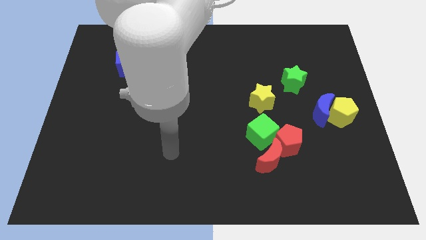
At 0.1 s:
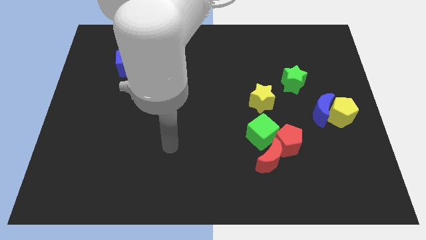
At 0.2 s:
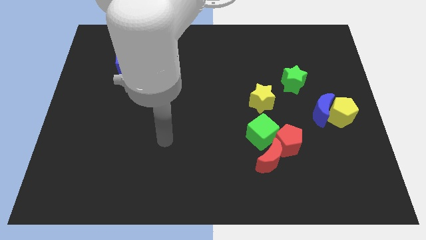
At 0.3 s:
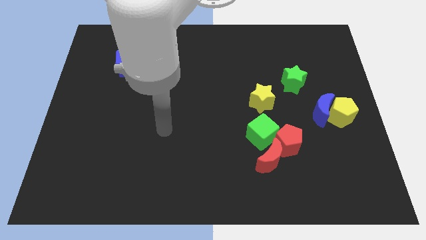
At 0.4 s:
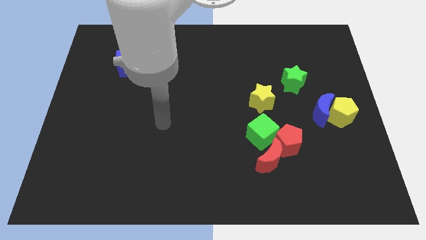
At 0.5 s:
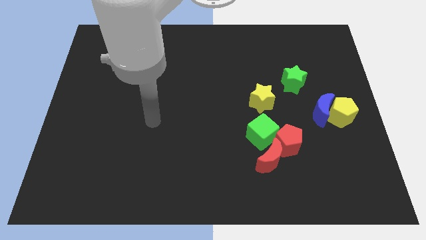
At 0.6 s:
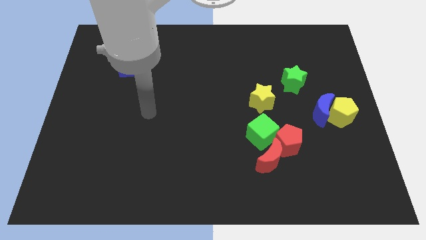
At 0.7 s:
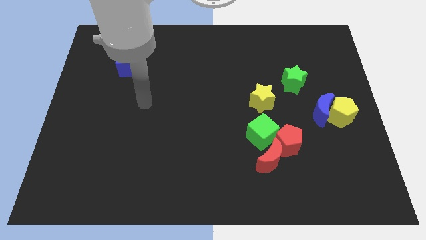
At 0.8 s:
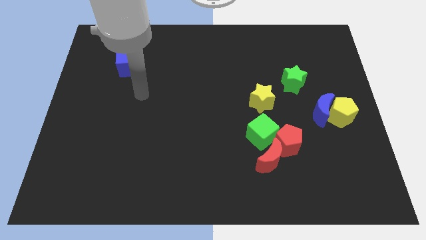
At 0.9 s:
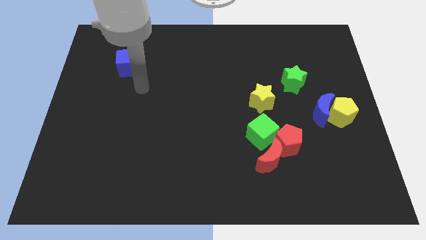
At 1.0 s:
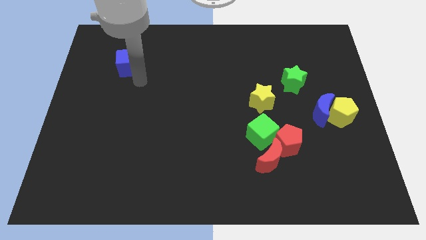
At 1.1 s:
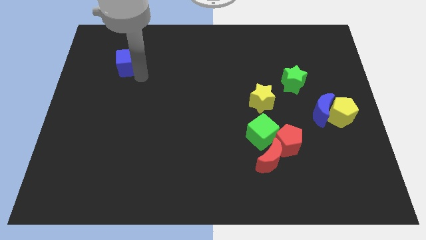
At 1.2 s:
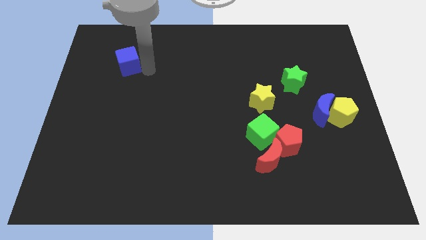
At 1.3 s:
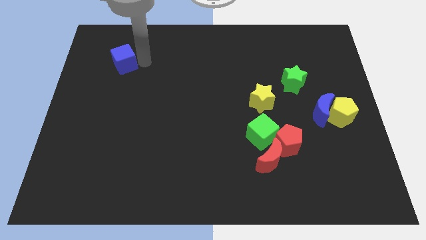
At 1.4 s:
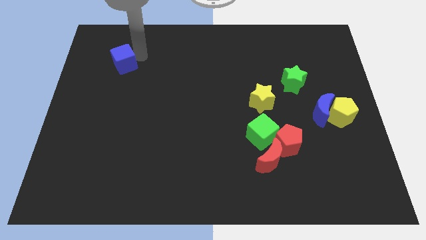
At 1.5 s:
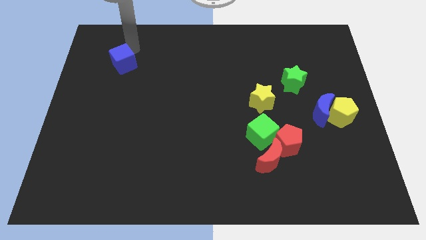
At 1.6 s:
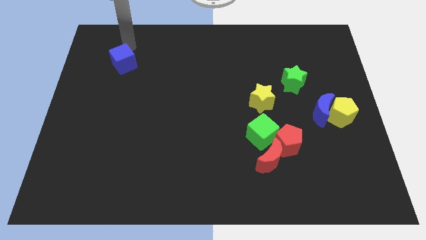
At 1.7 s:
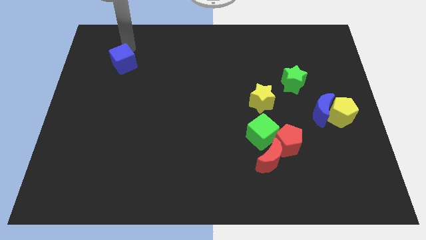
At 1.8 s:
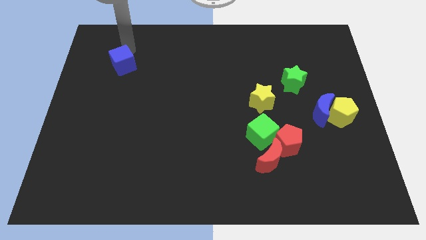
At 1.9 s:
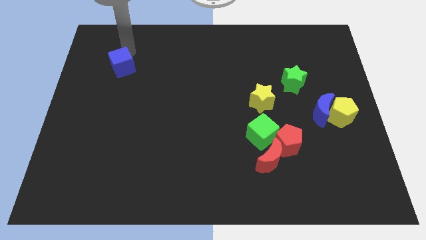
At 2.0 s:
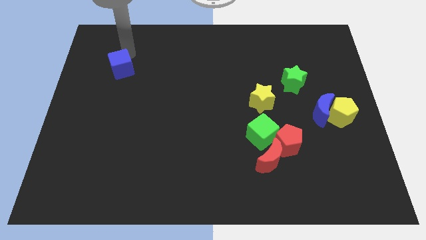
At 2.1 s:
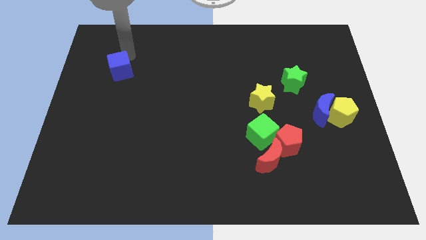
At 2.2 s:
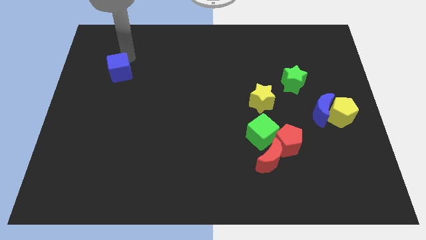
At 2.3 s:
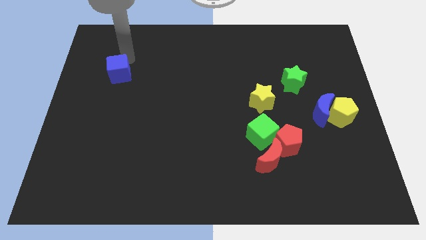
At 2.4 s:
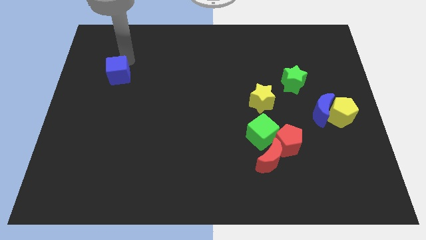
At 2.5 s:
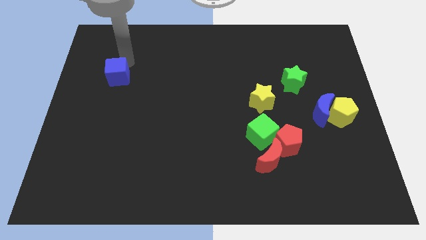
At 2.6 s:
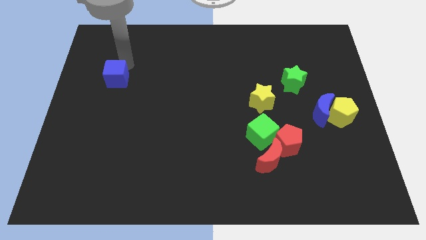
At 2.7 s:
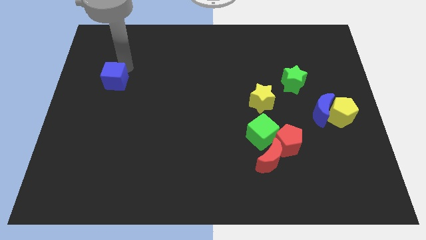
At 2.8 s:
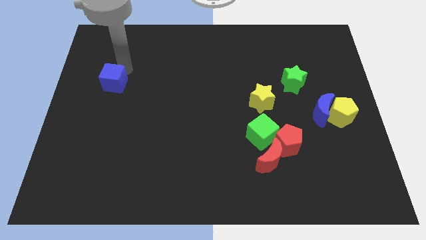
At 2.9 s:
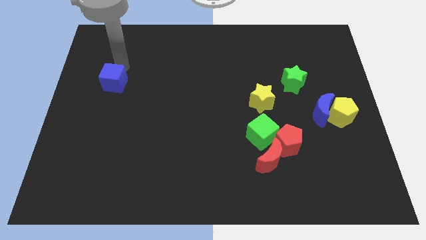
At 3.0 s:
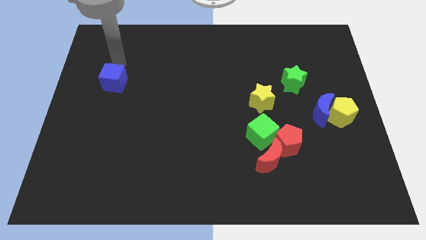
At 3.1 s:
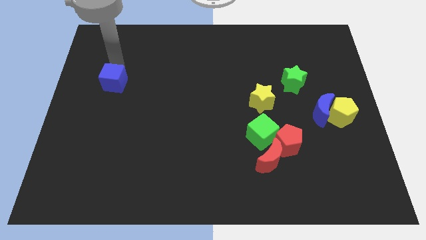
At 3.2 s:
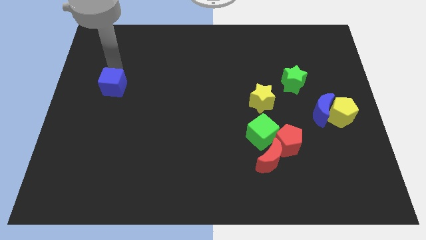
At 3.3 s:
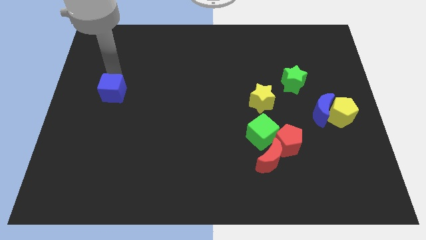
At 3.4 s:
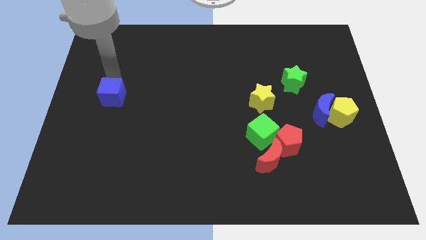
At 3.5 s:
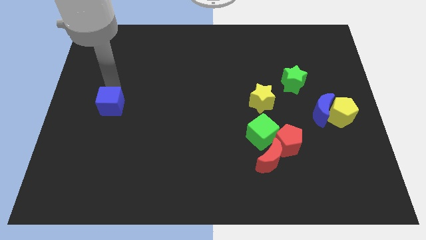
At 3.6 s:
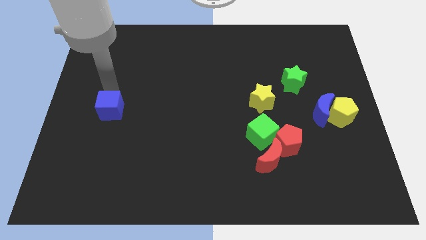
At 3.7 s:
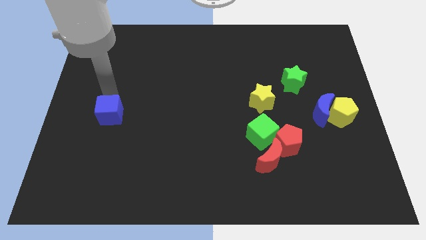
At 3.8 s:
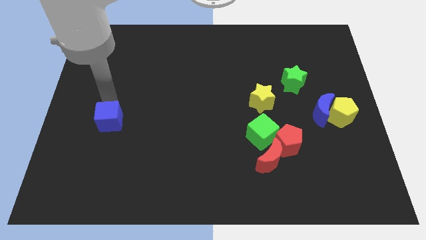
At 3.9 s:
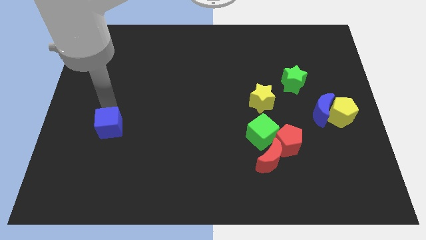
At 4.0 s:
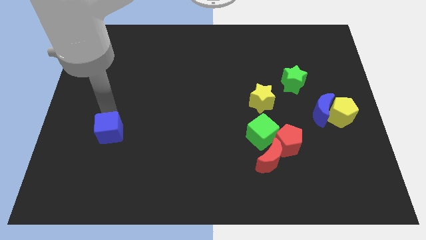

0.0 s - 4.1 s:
push the blue cube downwards

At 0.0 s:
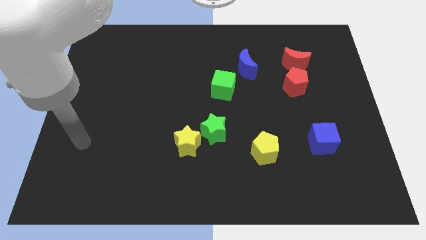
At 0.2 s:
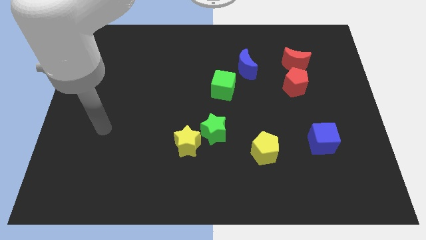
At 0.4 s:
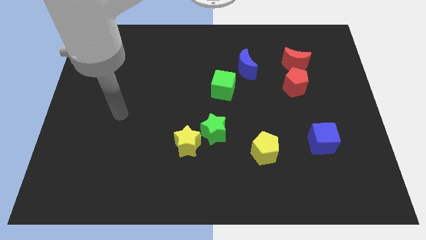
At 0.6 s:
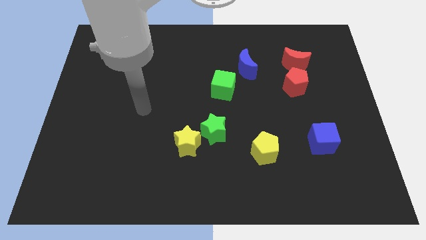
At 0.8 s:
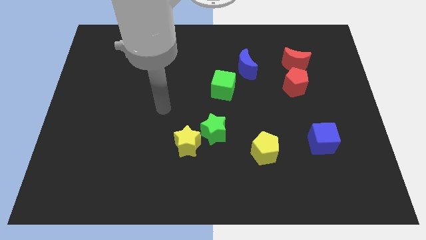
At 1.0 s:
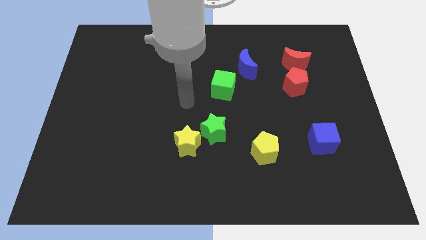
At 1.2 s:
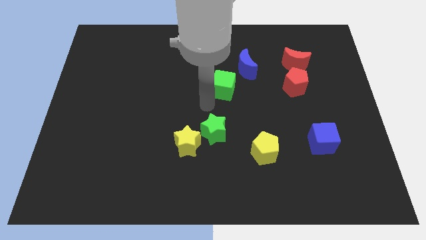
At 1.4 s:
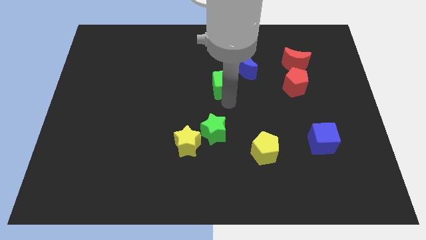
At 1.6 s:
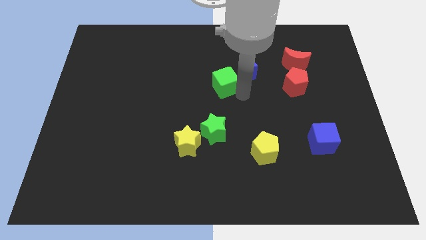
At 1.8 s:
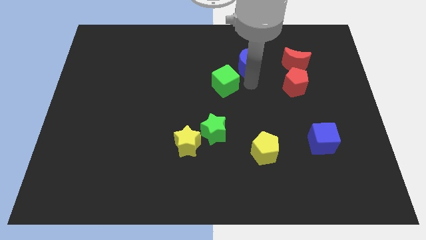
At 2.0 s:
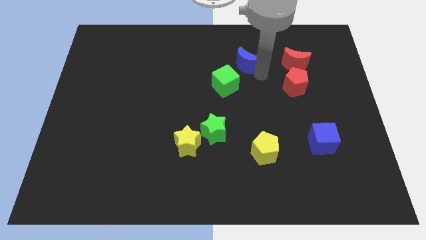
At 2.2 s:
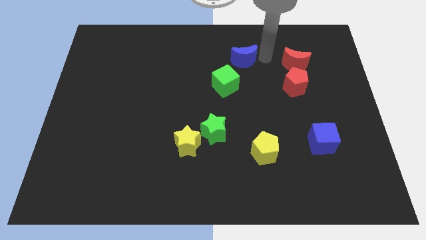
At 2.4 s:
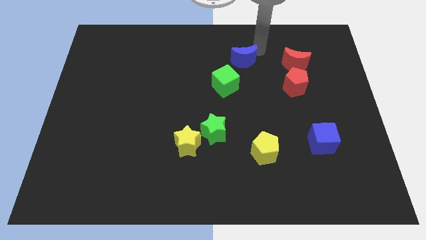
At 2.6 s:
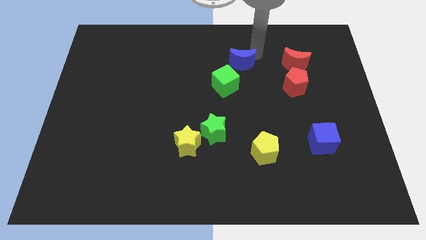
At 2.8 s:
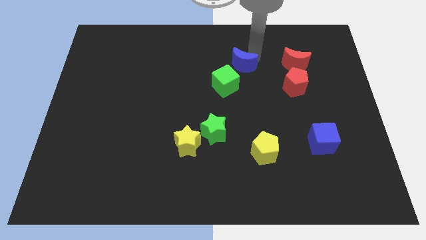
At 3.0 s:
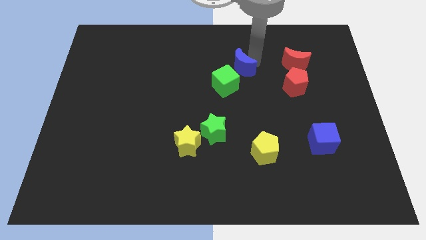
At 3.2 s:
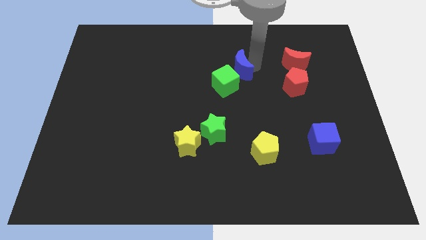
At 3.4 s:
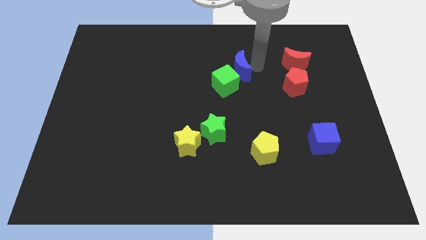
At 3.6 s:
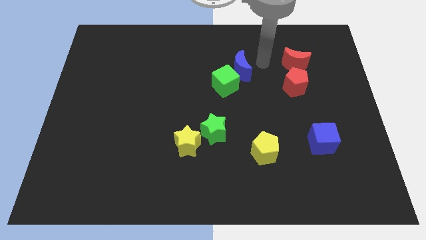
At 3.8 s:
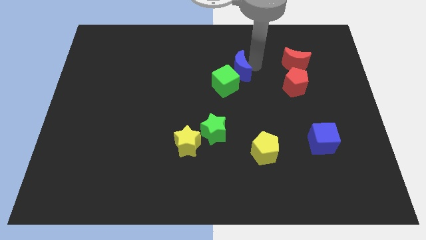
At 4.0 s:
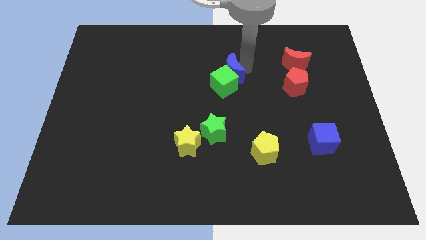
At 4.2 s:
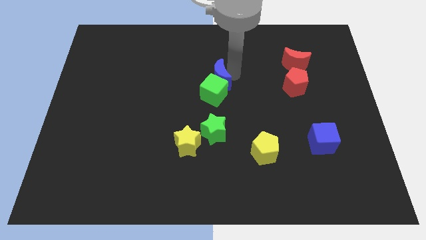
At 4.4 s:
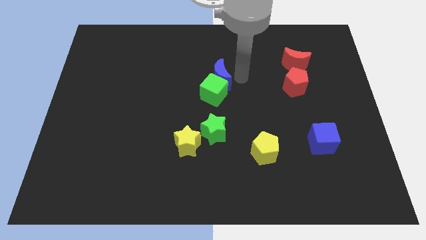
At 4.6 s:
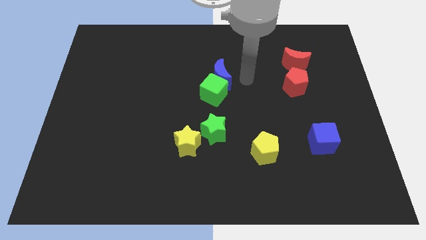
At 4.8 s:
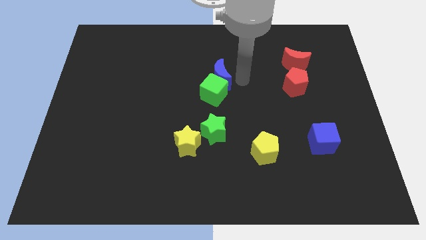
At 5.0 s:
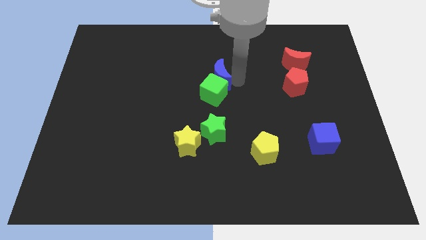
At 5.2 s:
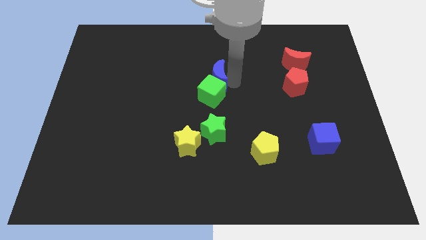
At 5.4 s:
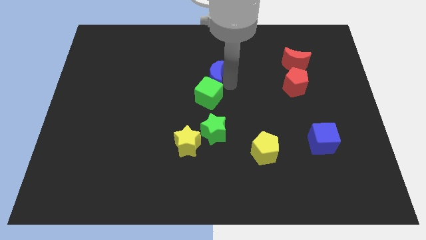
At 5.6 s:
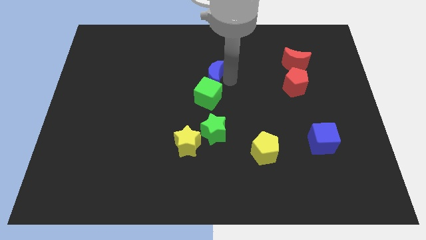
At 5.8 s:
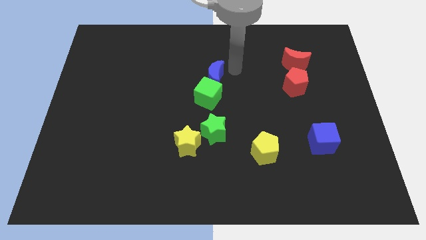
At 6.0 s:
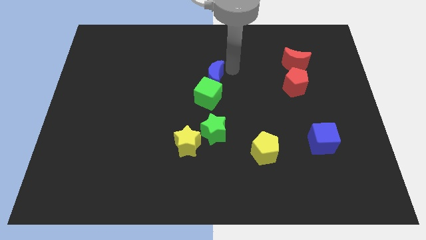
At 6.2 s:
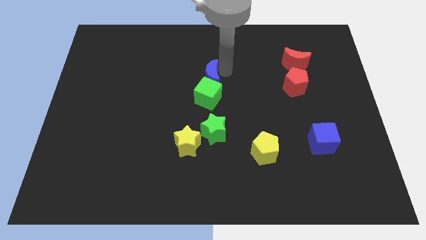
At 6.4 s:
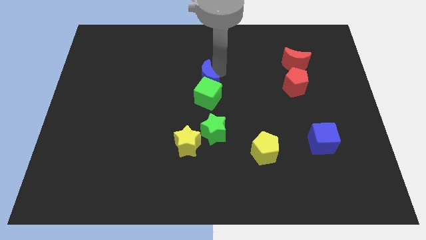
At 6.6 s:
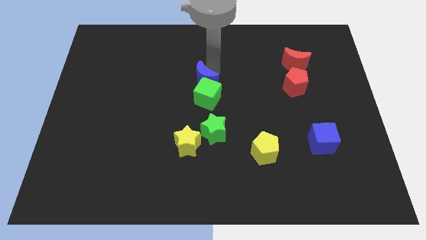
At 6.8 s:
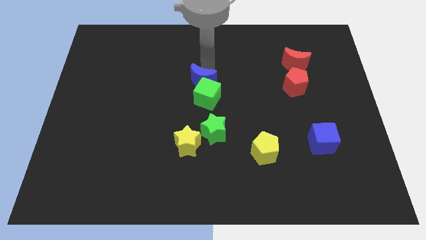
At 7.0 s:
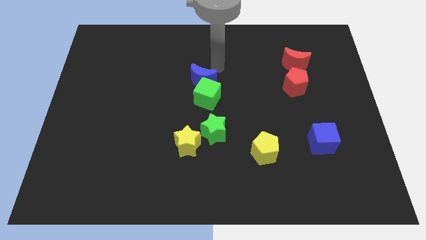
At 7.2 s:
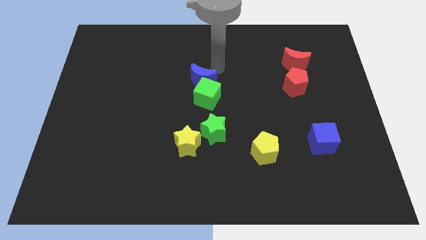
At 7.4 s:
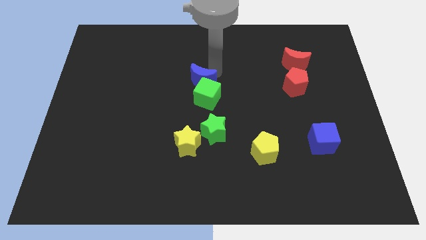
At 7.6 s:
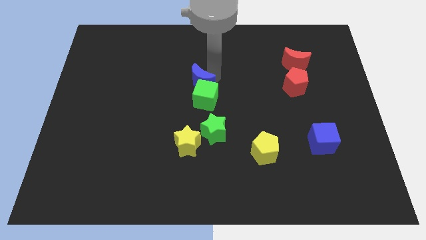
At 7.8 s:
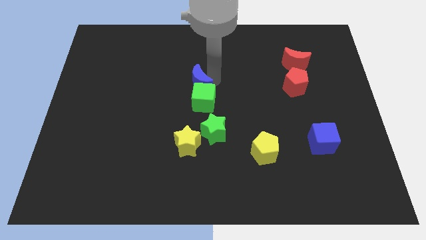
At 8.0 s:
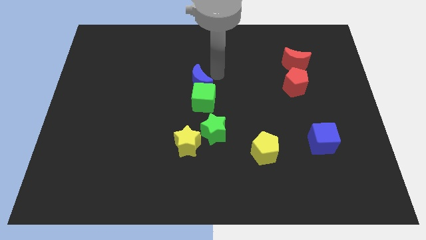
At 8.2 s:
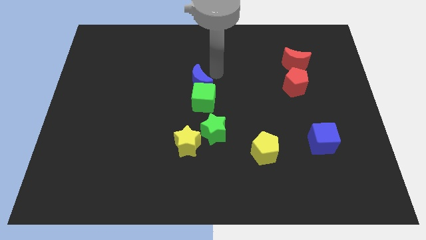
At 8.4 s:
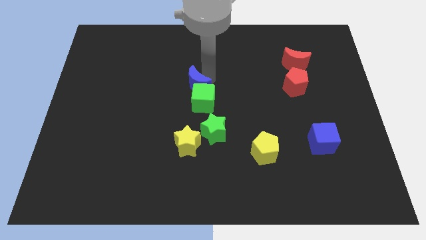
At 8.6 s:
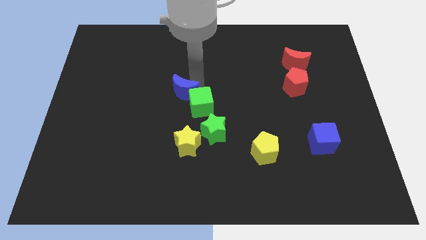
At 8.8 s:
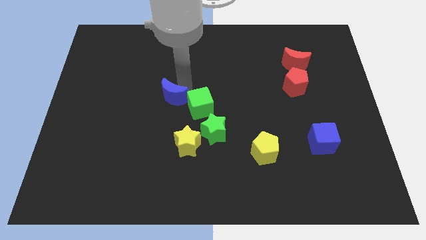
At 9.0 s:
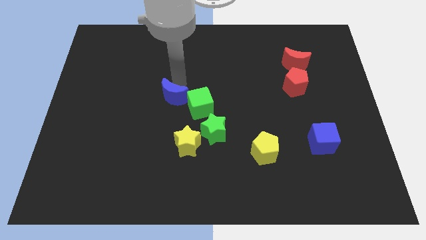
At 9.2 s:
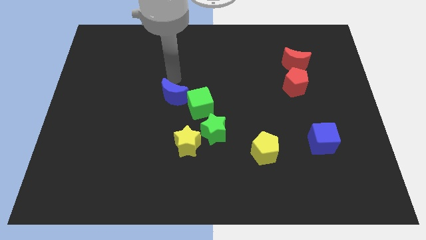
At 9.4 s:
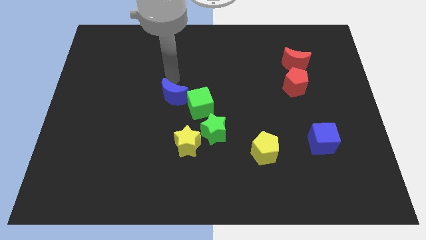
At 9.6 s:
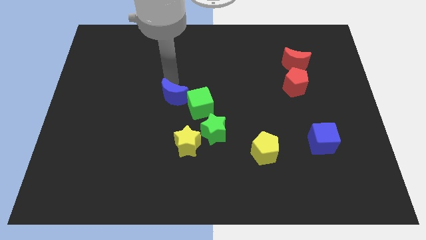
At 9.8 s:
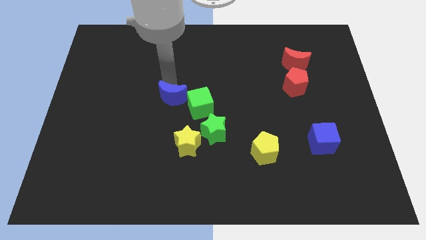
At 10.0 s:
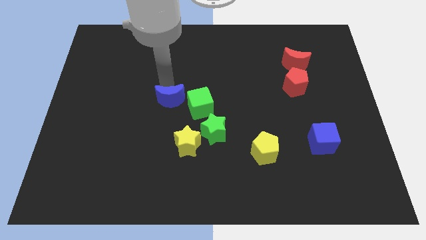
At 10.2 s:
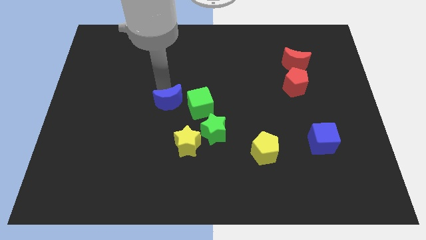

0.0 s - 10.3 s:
slide the blue moon downwards and then to the left
